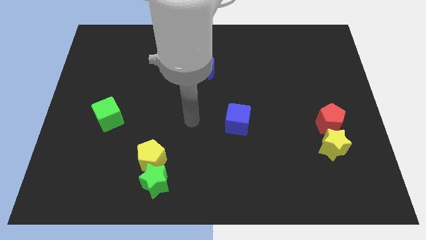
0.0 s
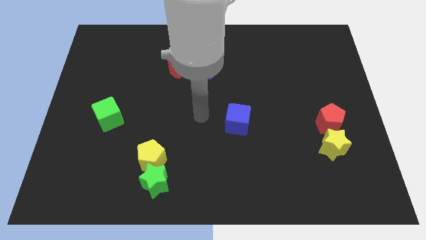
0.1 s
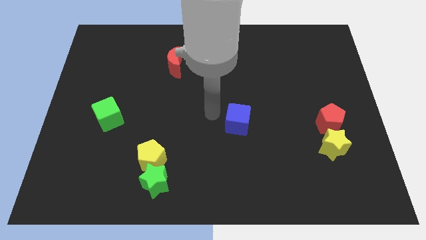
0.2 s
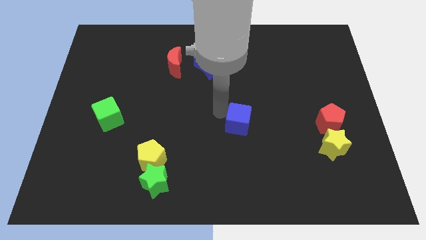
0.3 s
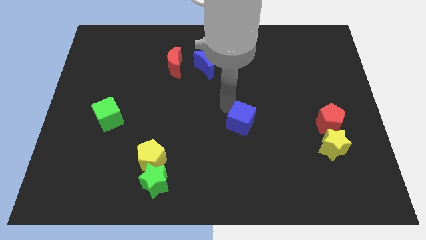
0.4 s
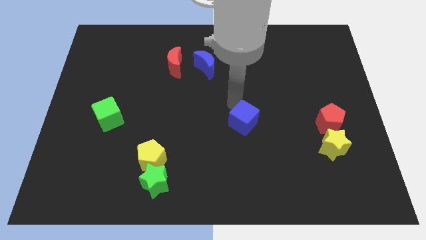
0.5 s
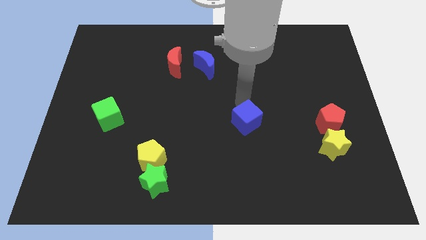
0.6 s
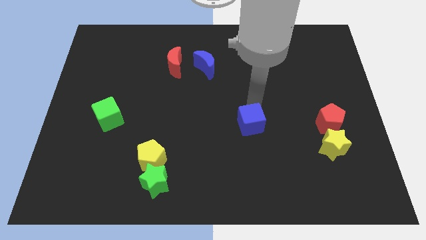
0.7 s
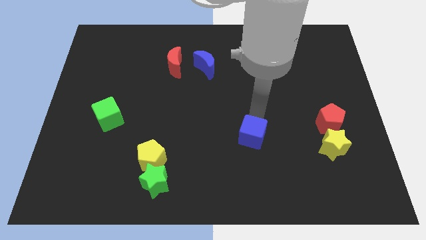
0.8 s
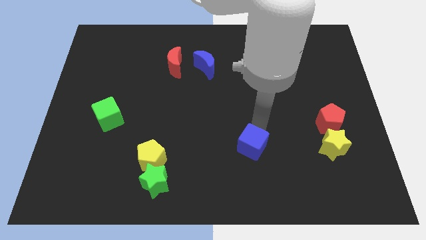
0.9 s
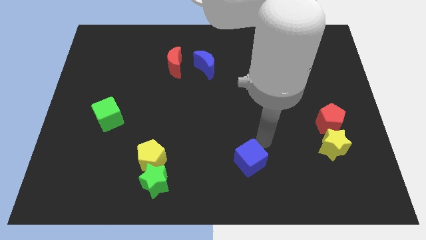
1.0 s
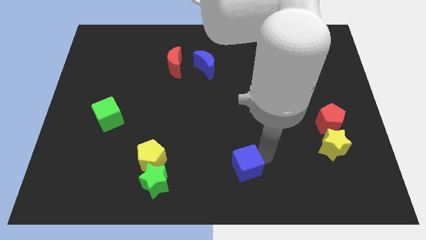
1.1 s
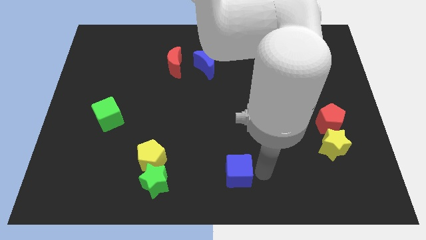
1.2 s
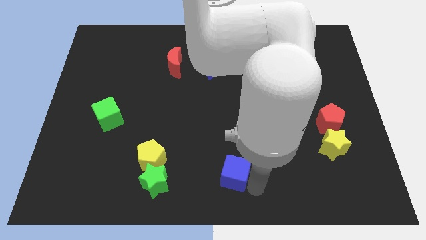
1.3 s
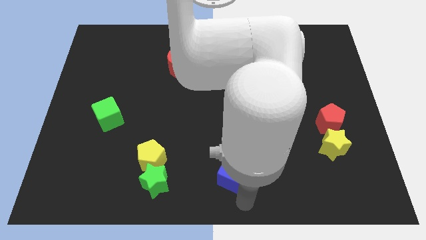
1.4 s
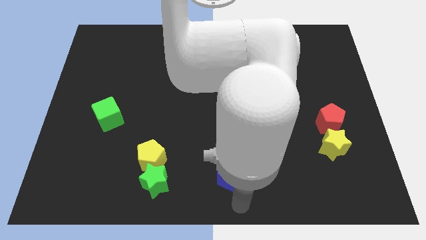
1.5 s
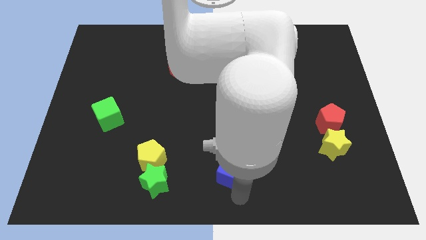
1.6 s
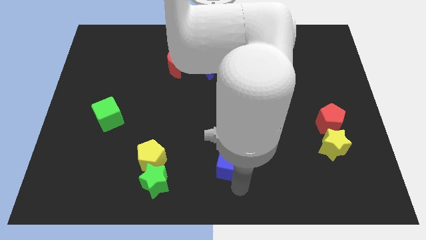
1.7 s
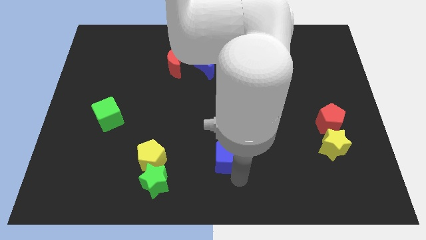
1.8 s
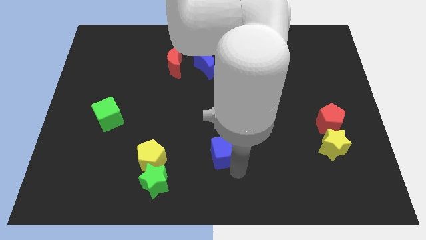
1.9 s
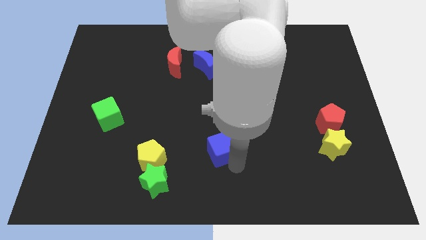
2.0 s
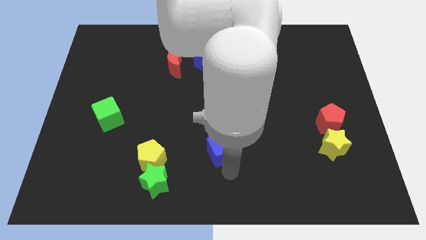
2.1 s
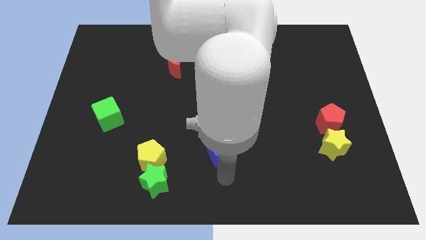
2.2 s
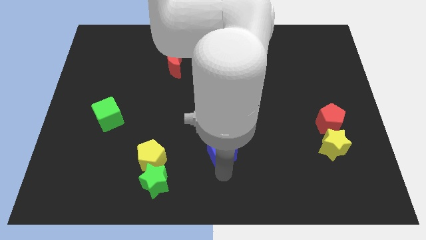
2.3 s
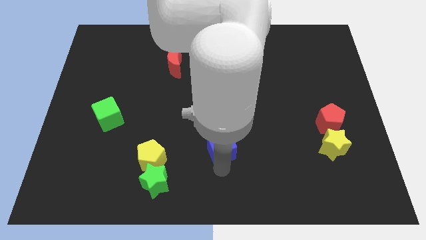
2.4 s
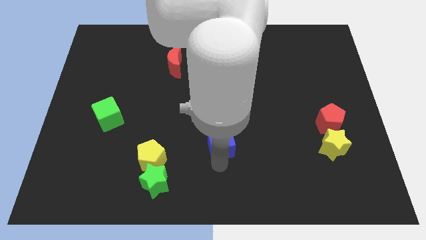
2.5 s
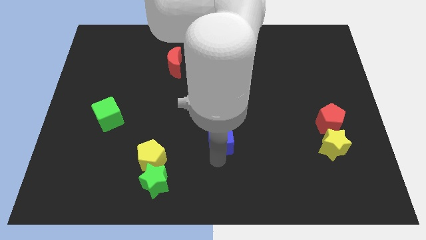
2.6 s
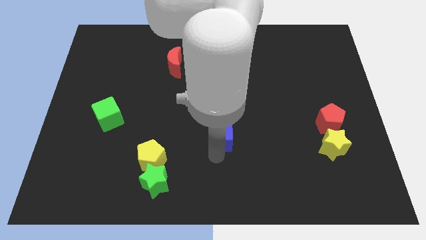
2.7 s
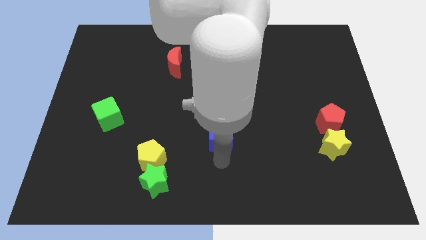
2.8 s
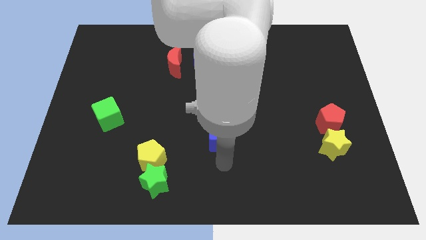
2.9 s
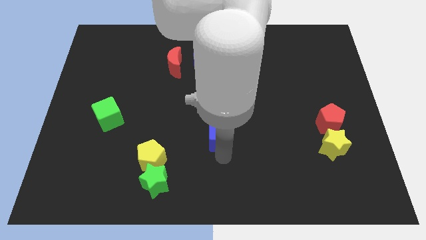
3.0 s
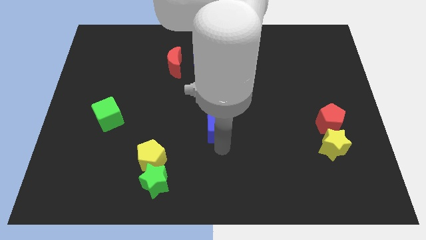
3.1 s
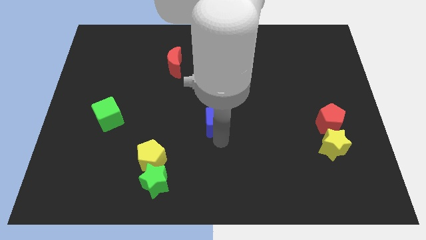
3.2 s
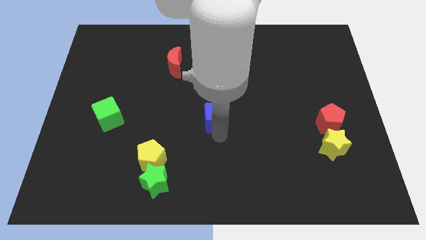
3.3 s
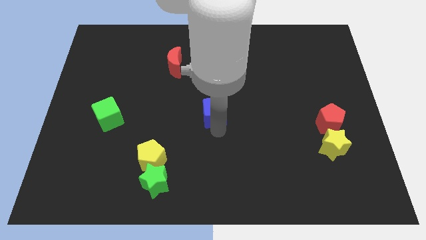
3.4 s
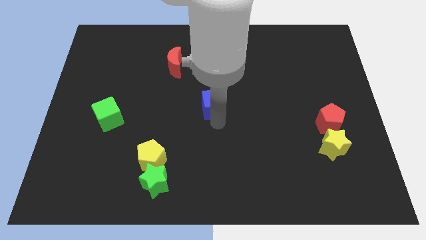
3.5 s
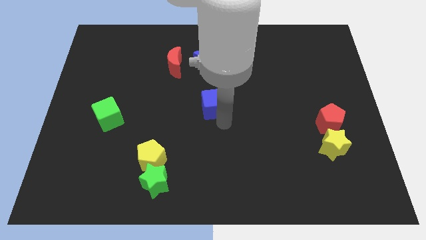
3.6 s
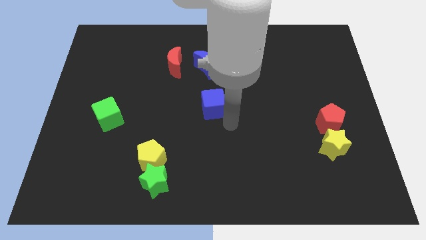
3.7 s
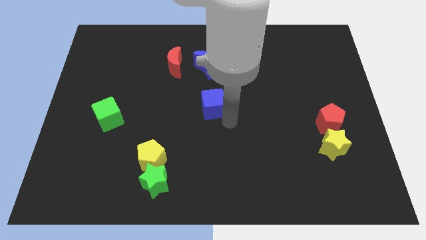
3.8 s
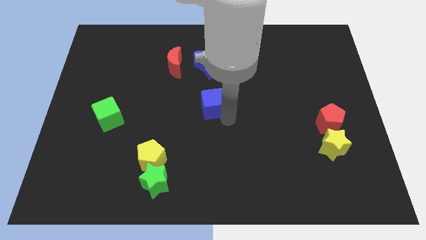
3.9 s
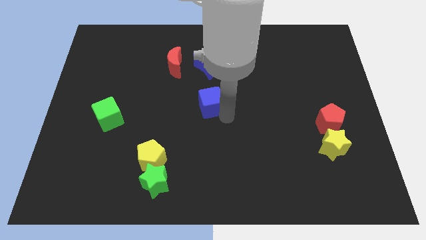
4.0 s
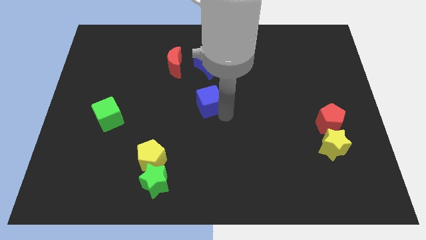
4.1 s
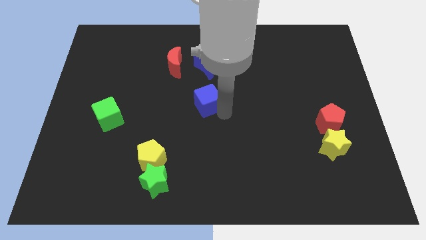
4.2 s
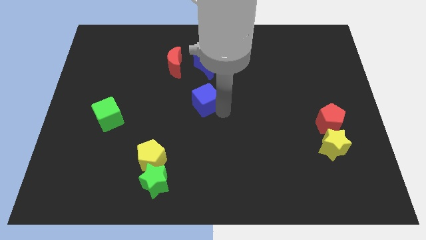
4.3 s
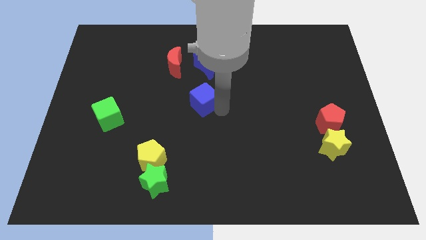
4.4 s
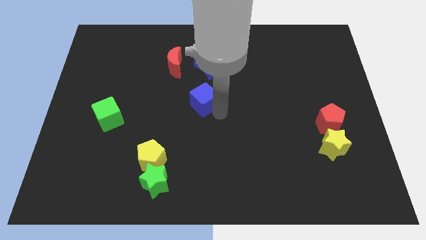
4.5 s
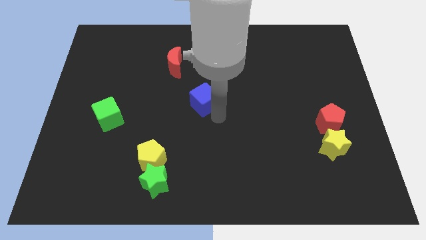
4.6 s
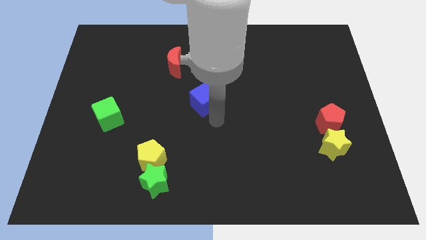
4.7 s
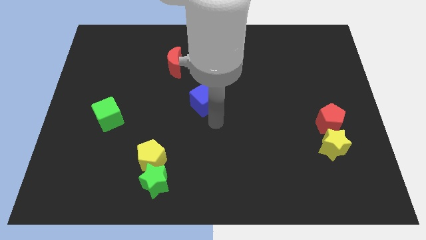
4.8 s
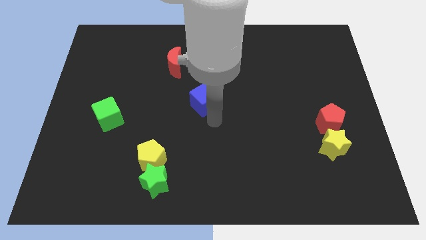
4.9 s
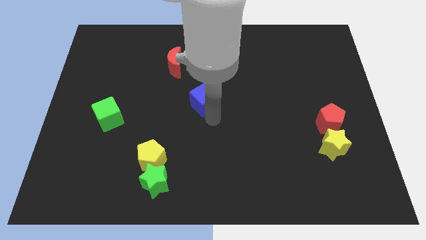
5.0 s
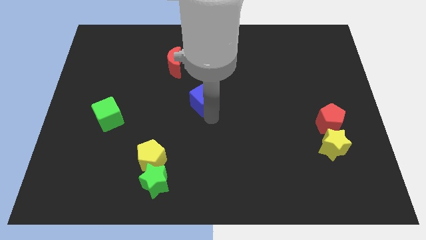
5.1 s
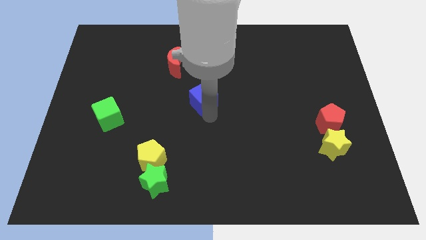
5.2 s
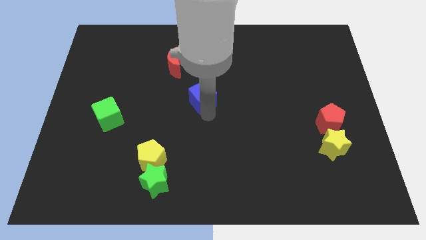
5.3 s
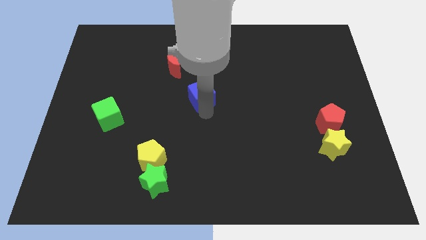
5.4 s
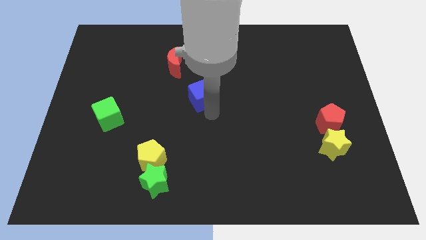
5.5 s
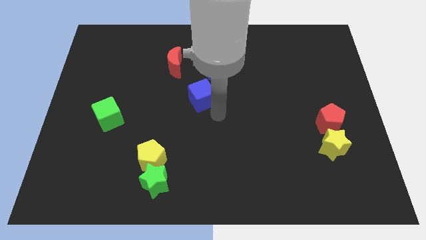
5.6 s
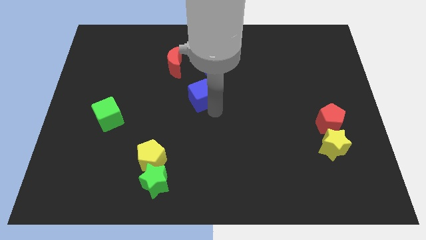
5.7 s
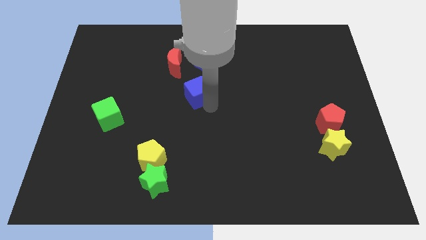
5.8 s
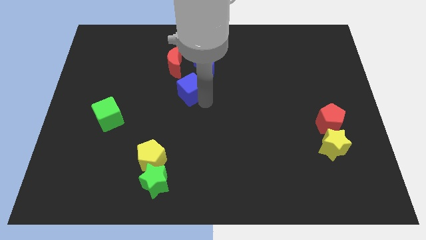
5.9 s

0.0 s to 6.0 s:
push the blue cube to the bottom left side of the blue moon

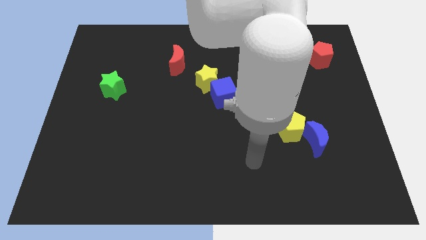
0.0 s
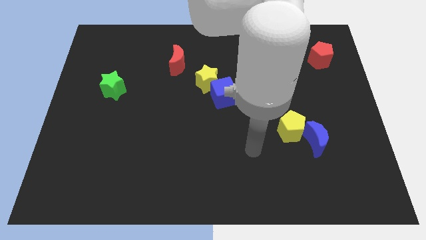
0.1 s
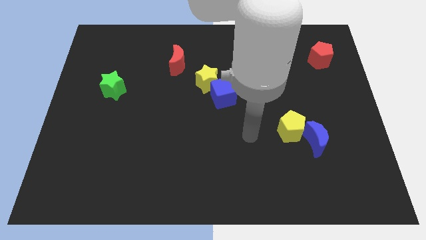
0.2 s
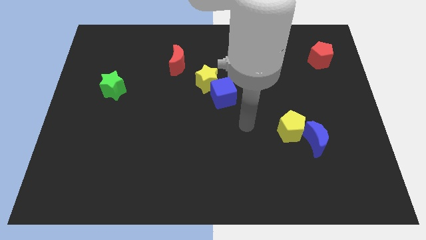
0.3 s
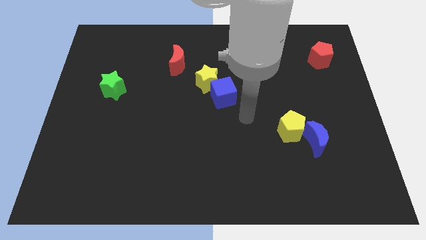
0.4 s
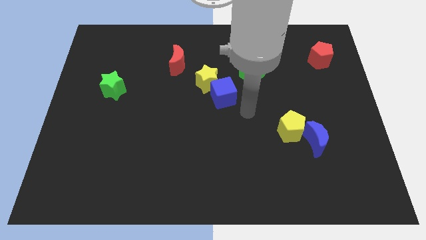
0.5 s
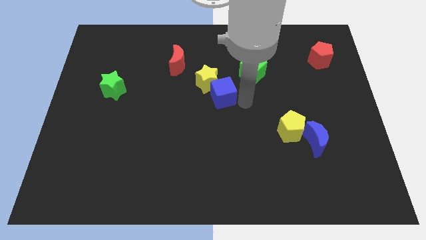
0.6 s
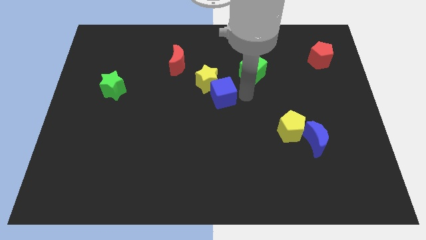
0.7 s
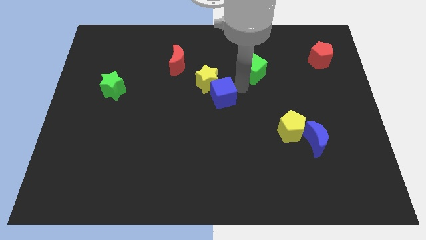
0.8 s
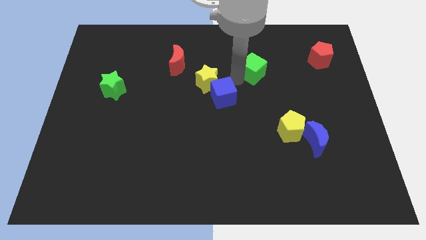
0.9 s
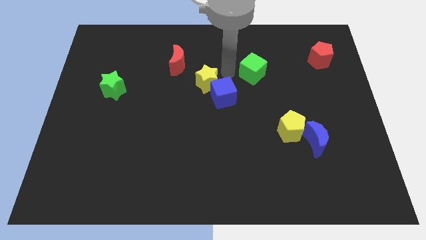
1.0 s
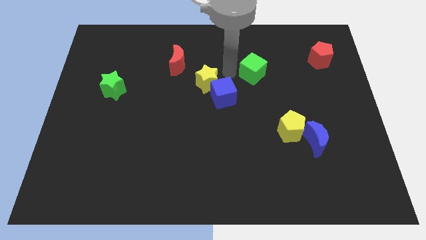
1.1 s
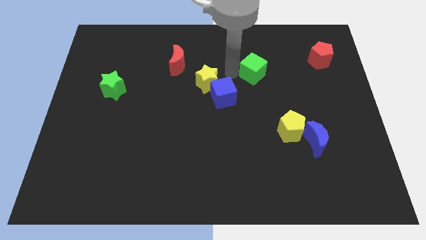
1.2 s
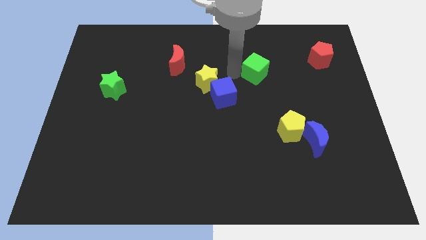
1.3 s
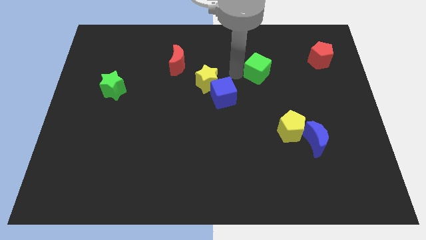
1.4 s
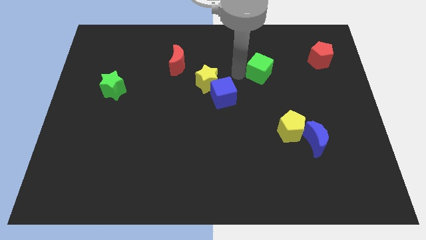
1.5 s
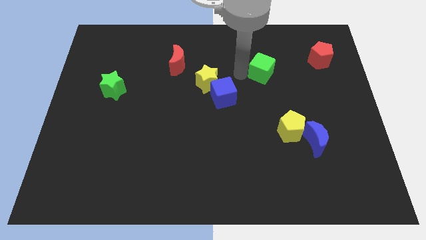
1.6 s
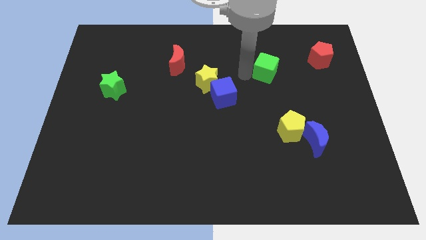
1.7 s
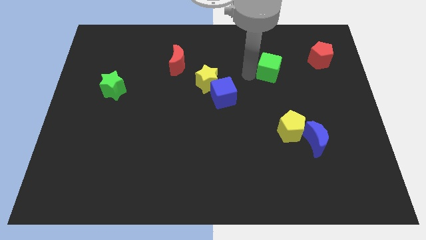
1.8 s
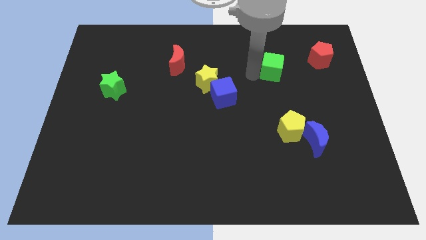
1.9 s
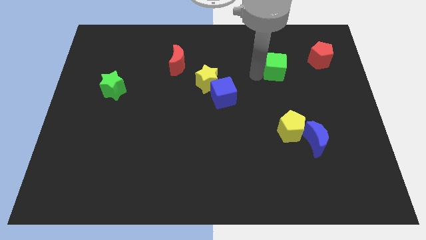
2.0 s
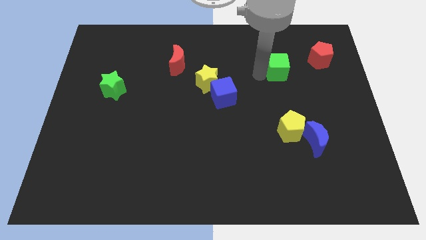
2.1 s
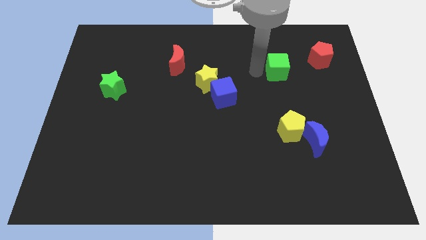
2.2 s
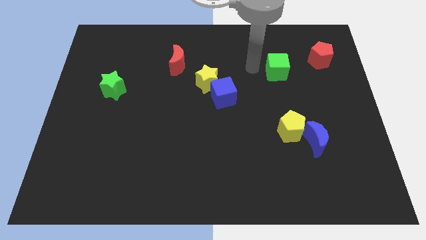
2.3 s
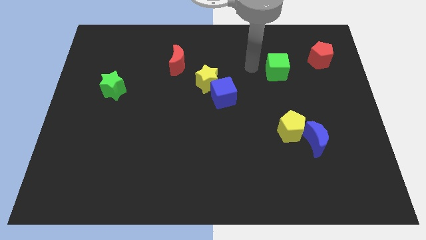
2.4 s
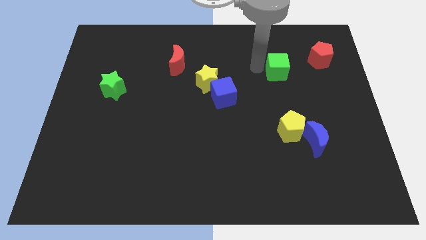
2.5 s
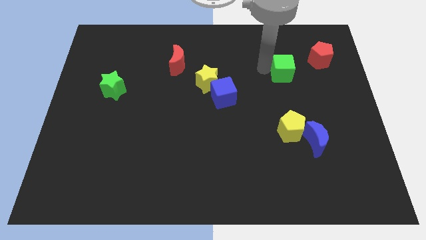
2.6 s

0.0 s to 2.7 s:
slide the green cube to the bottom left of the red pentagon
